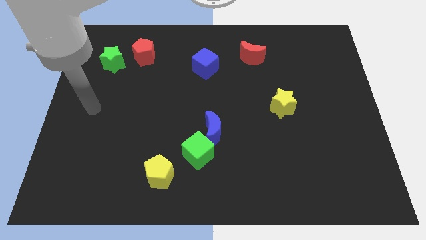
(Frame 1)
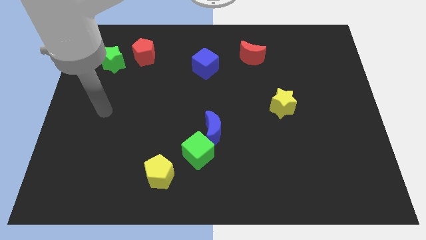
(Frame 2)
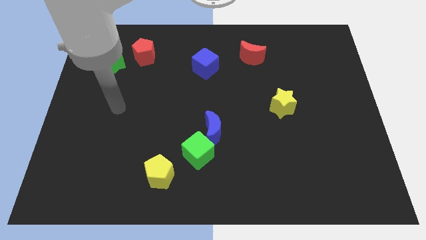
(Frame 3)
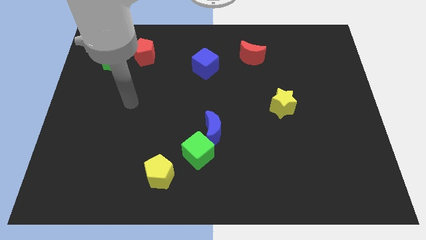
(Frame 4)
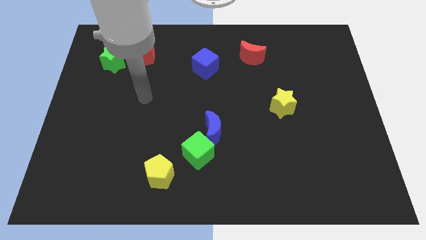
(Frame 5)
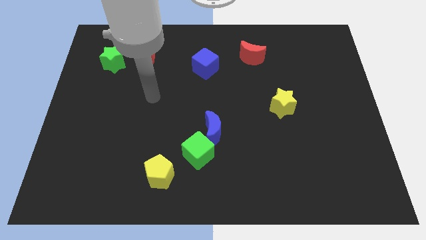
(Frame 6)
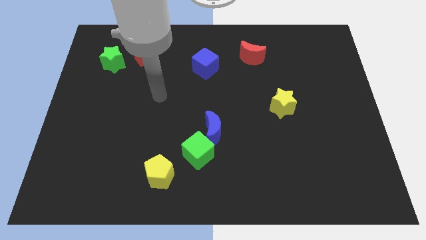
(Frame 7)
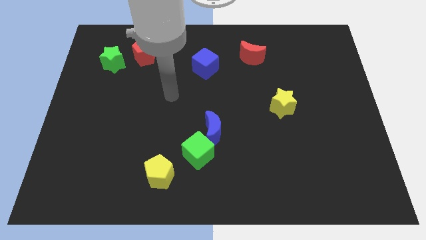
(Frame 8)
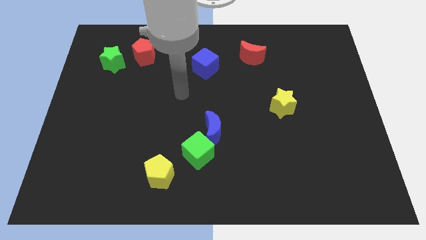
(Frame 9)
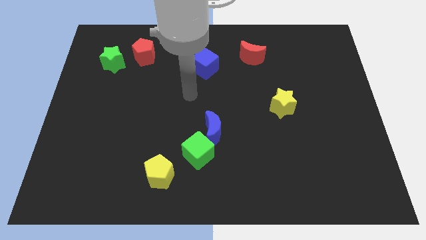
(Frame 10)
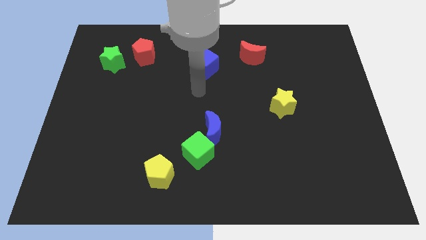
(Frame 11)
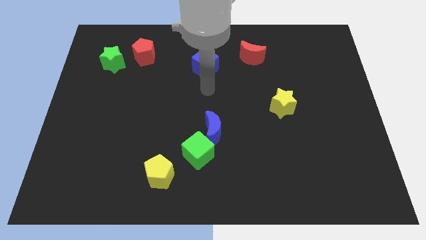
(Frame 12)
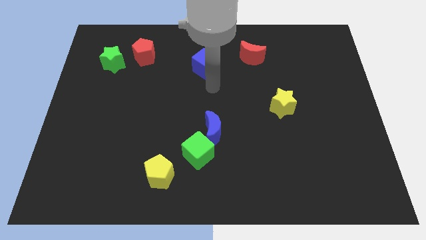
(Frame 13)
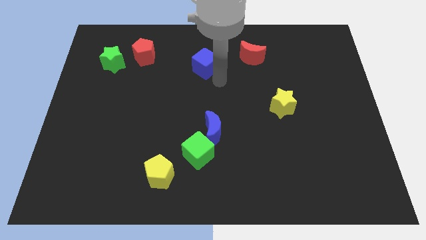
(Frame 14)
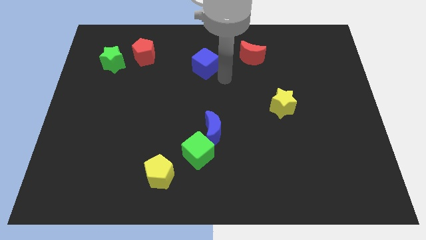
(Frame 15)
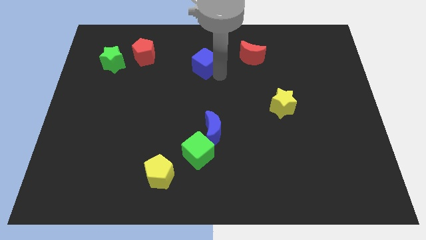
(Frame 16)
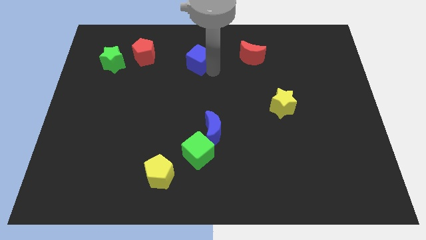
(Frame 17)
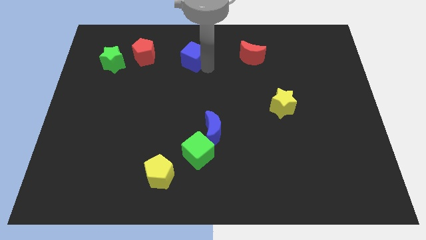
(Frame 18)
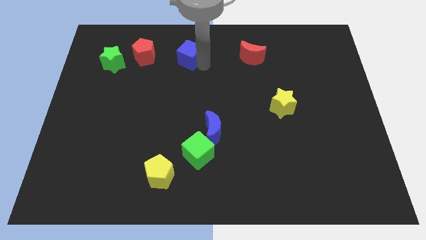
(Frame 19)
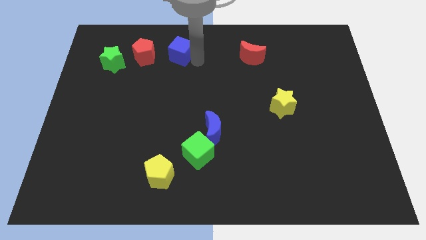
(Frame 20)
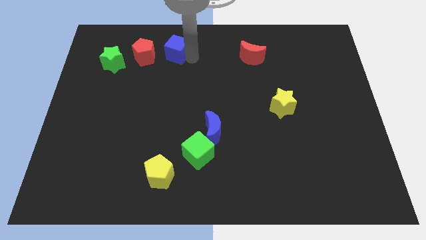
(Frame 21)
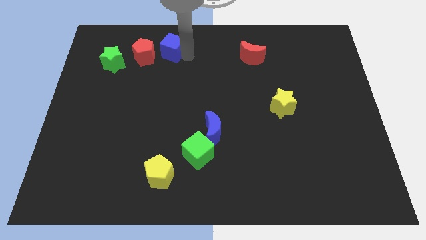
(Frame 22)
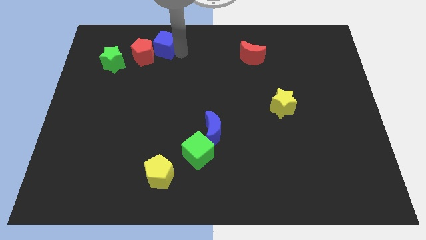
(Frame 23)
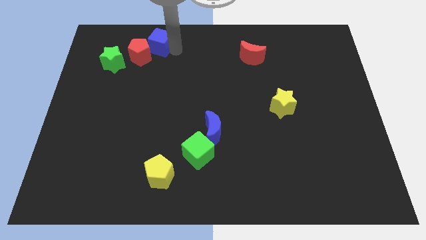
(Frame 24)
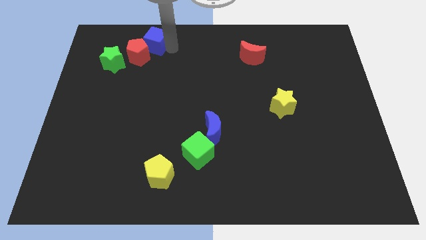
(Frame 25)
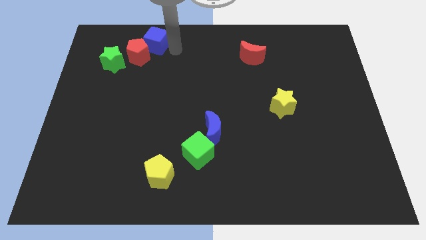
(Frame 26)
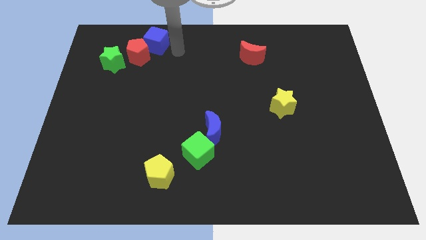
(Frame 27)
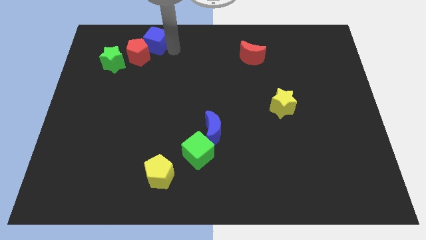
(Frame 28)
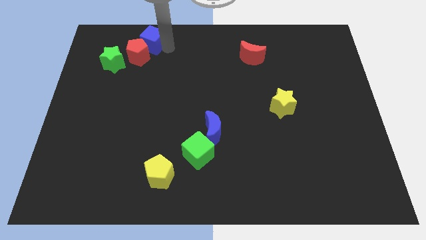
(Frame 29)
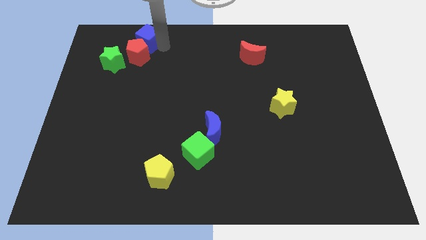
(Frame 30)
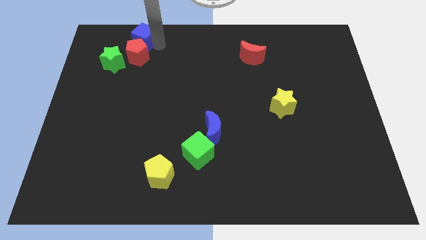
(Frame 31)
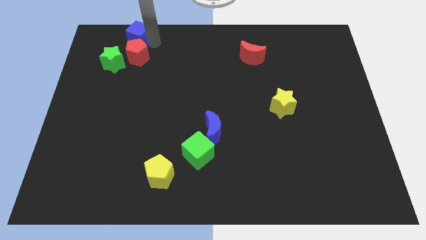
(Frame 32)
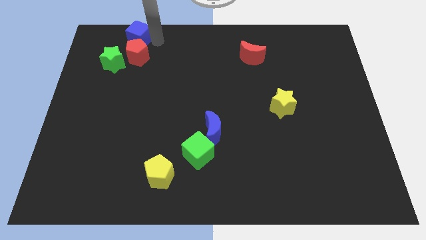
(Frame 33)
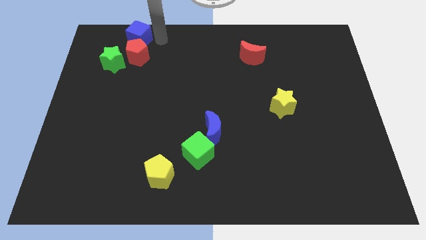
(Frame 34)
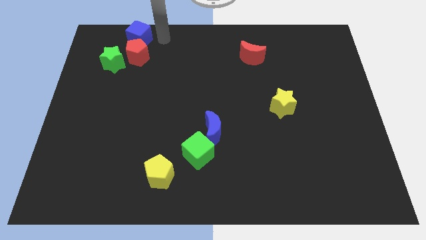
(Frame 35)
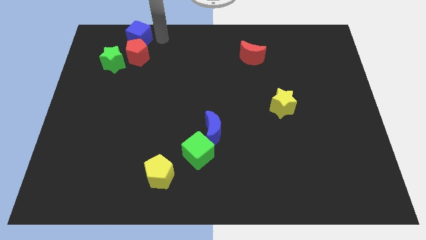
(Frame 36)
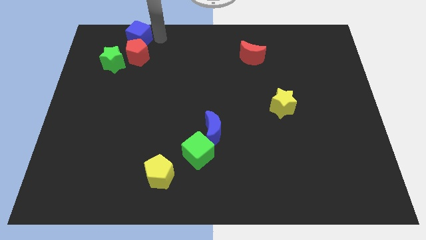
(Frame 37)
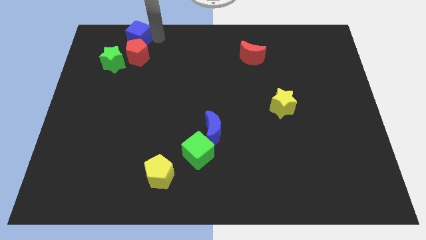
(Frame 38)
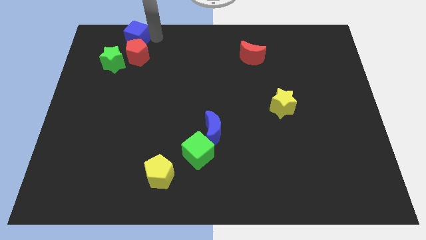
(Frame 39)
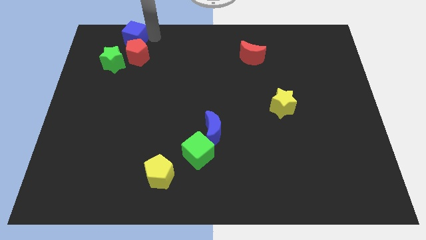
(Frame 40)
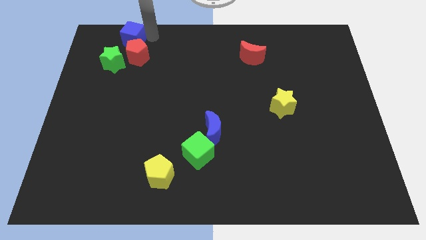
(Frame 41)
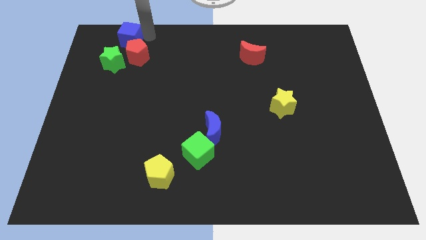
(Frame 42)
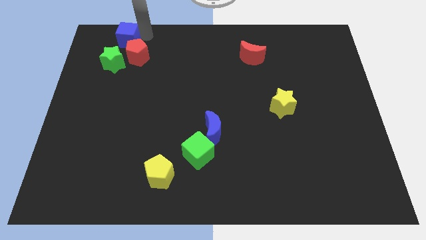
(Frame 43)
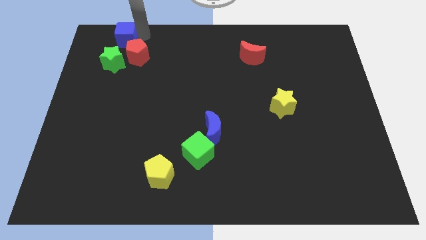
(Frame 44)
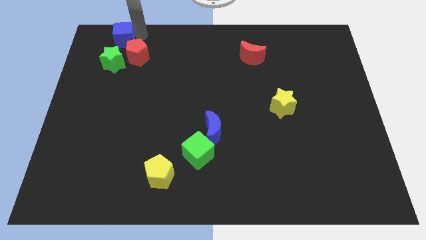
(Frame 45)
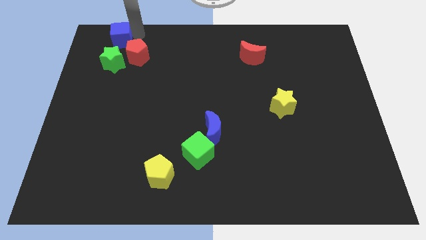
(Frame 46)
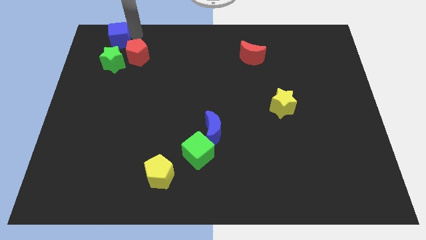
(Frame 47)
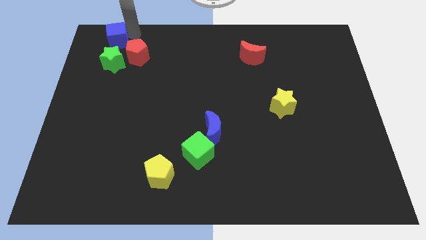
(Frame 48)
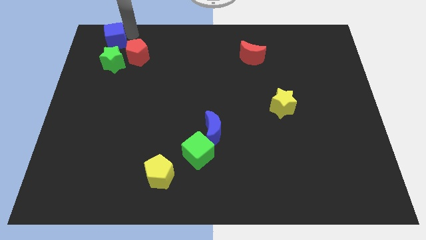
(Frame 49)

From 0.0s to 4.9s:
slide the blue cube to the top left of the board

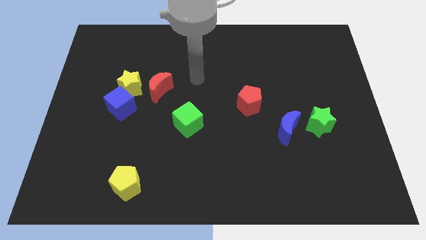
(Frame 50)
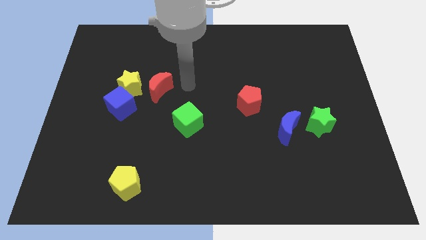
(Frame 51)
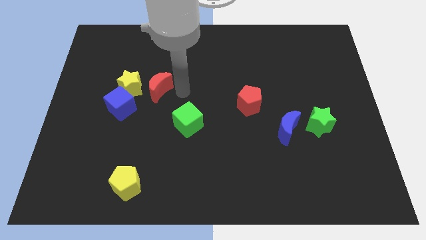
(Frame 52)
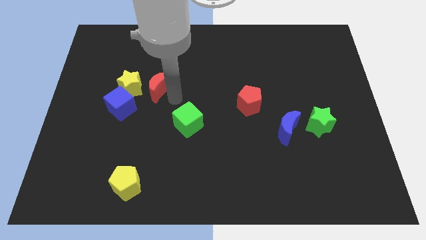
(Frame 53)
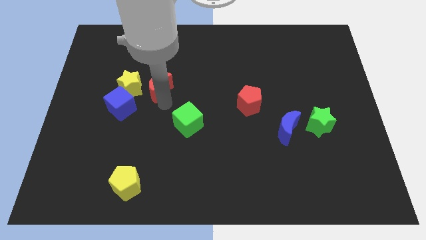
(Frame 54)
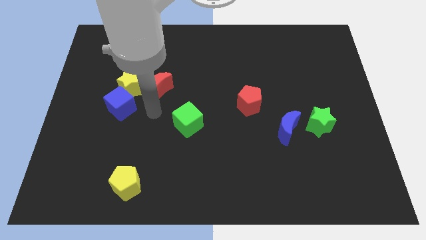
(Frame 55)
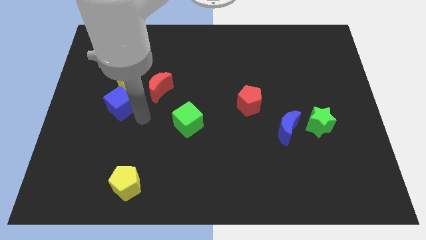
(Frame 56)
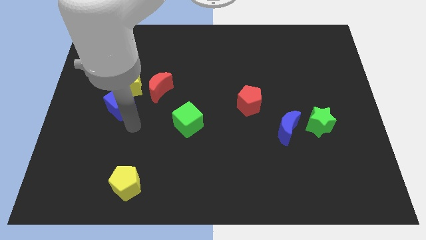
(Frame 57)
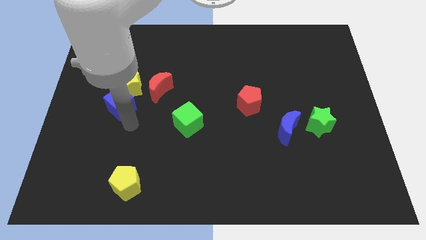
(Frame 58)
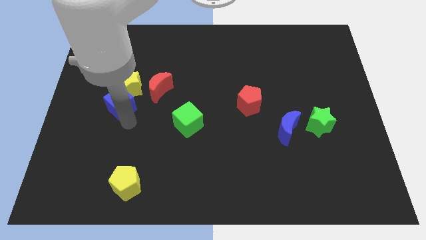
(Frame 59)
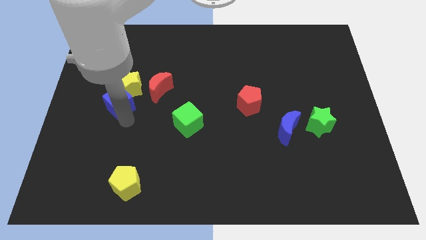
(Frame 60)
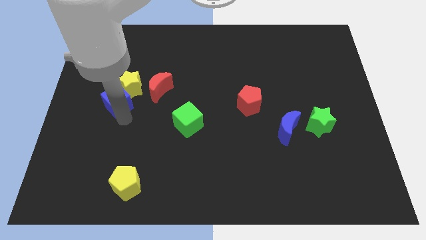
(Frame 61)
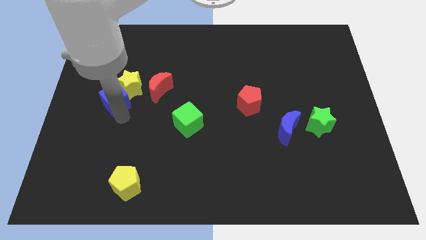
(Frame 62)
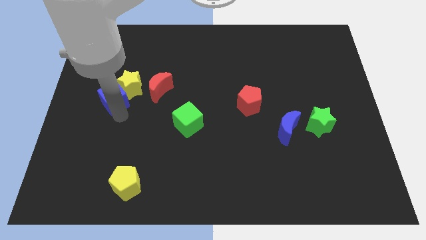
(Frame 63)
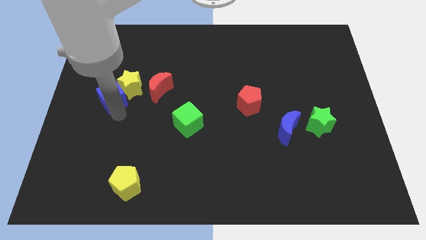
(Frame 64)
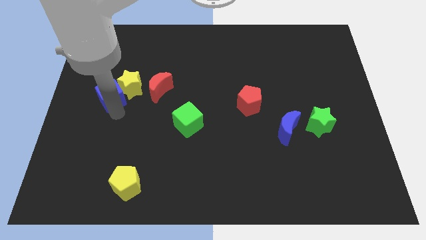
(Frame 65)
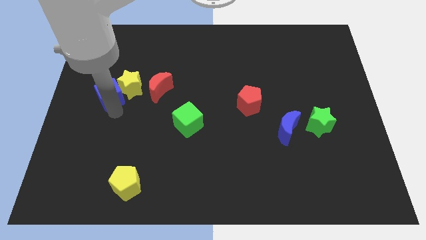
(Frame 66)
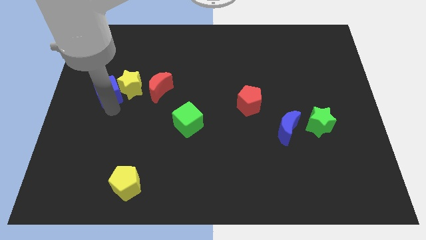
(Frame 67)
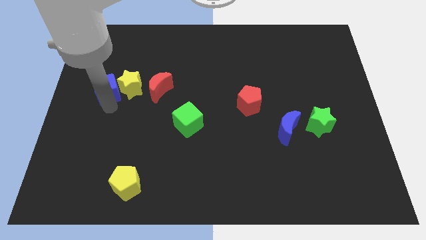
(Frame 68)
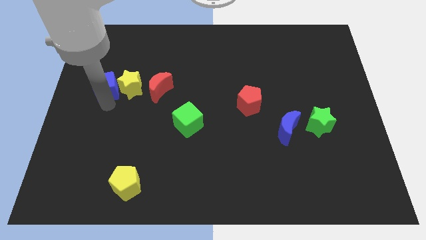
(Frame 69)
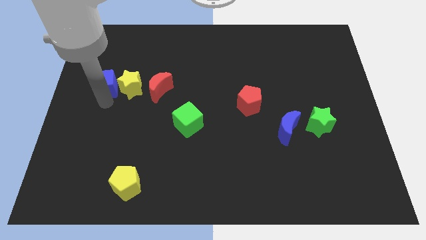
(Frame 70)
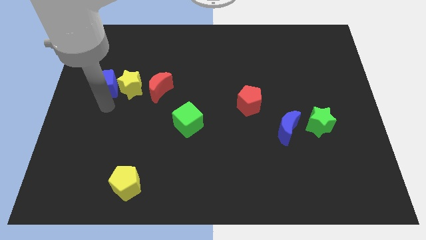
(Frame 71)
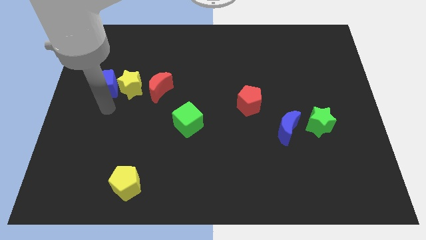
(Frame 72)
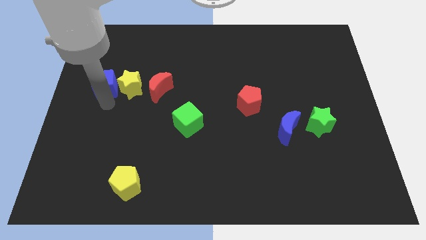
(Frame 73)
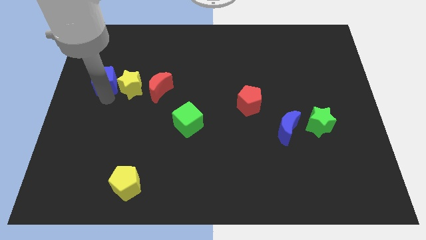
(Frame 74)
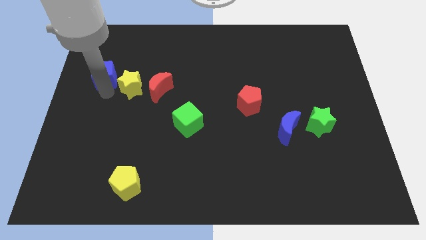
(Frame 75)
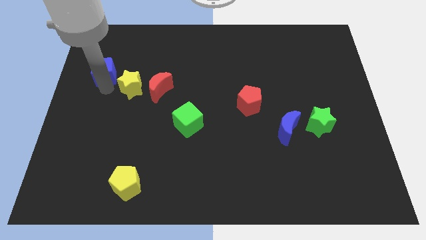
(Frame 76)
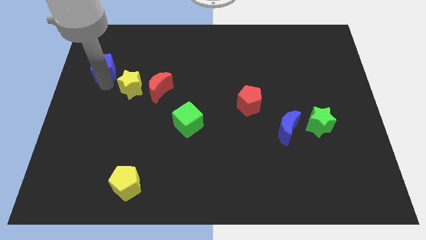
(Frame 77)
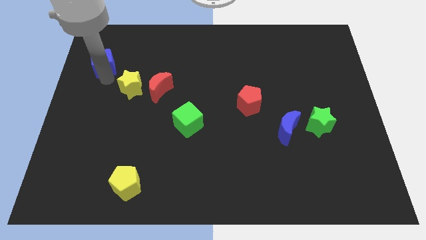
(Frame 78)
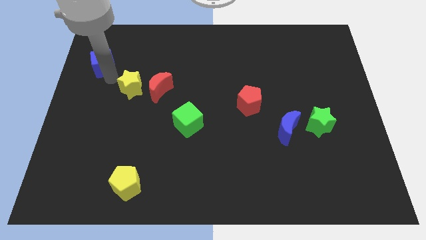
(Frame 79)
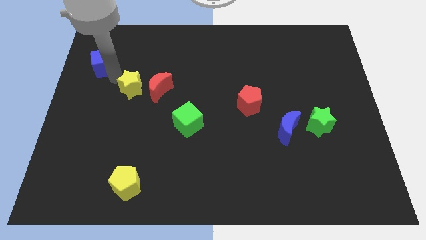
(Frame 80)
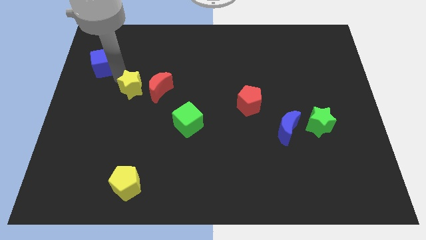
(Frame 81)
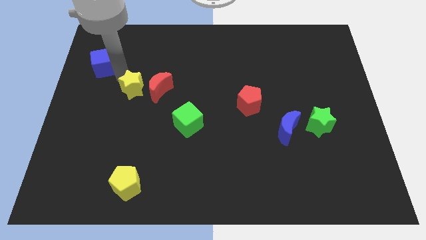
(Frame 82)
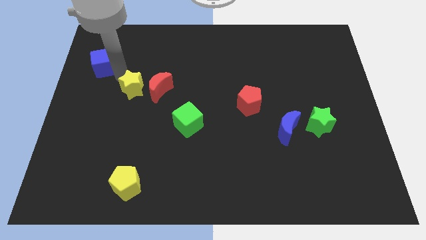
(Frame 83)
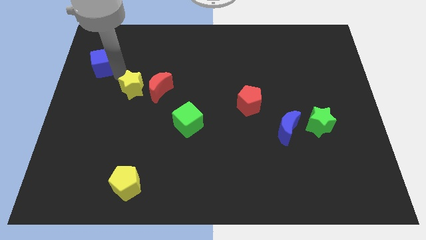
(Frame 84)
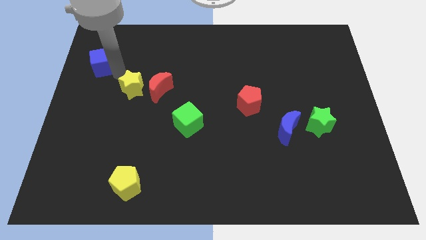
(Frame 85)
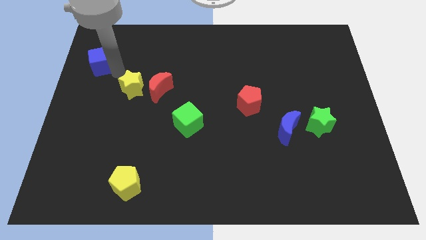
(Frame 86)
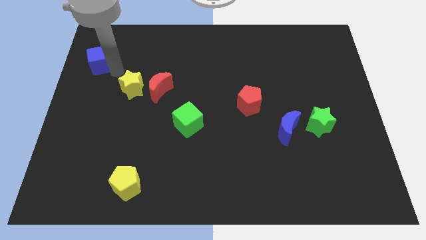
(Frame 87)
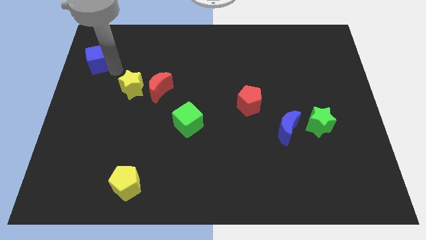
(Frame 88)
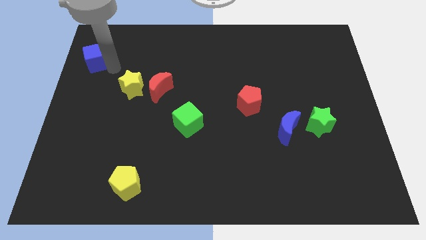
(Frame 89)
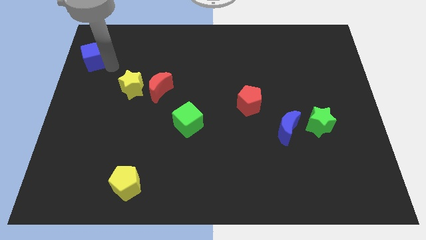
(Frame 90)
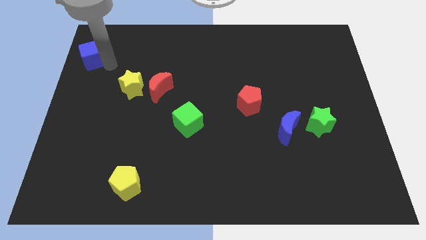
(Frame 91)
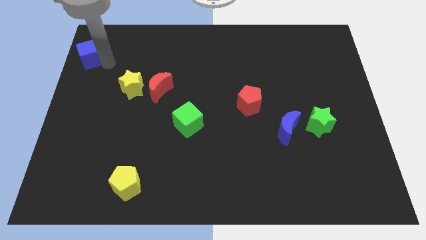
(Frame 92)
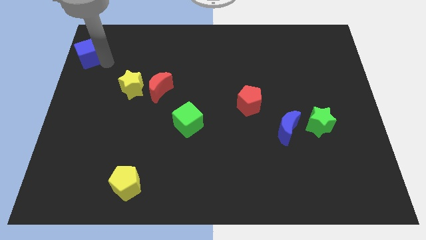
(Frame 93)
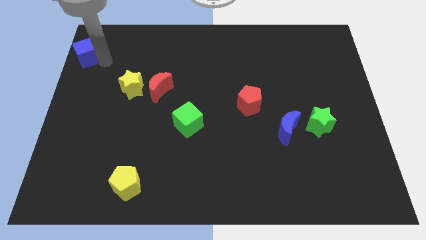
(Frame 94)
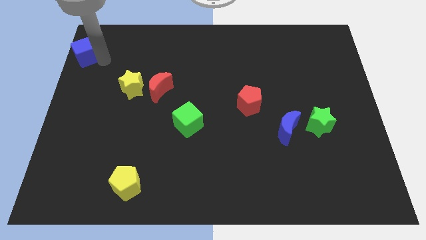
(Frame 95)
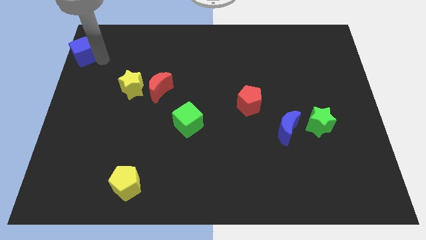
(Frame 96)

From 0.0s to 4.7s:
put the blue cube to the top left of the board
